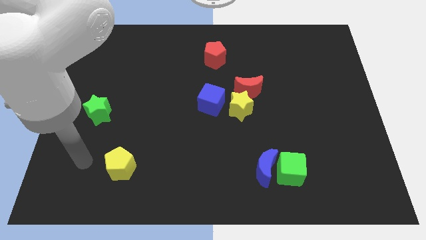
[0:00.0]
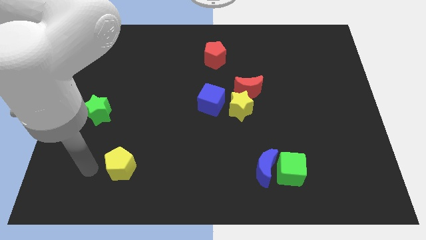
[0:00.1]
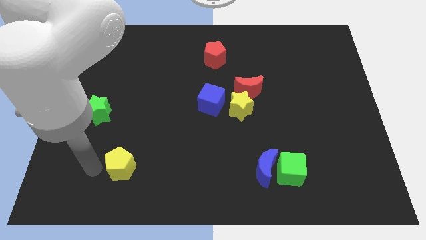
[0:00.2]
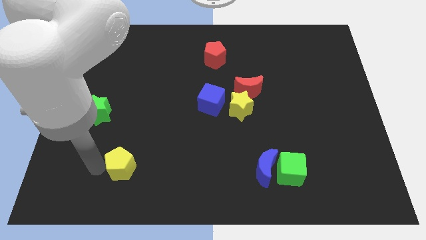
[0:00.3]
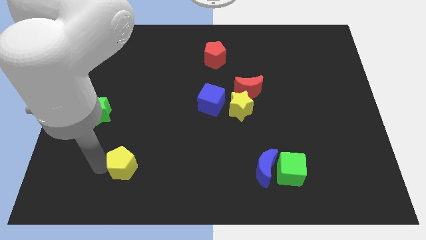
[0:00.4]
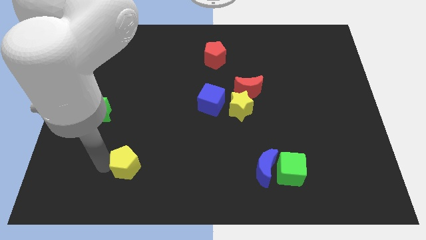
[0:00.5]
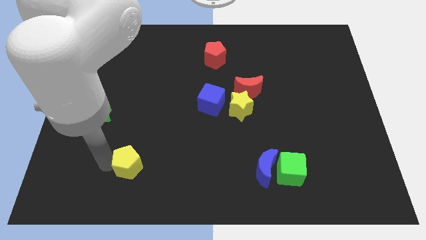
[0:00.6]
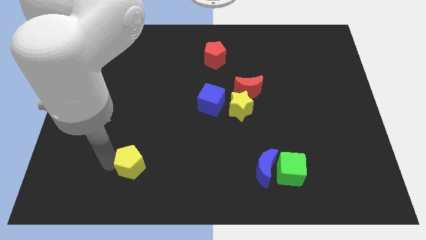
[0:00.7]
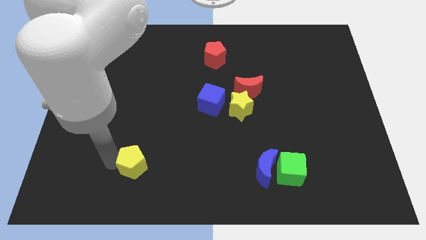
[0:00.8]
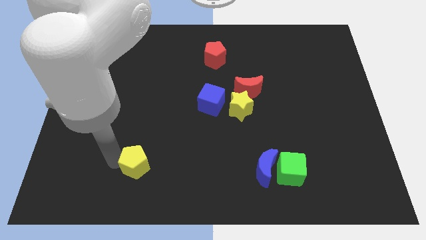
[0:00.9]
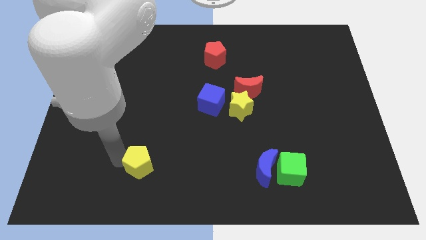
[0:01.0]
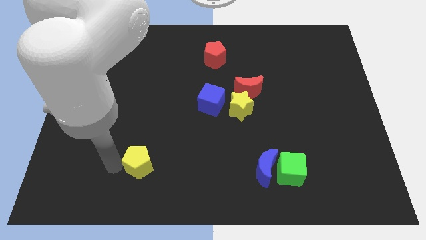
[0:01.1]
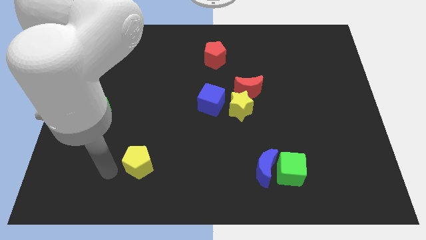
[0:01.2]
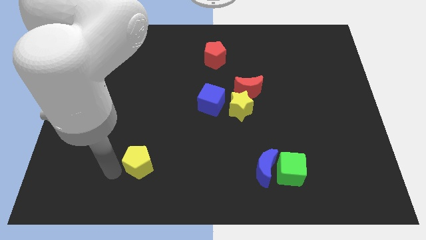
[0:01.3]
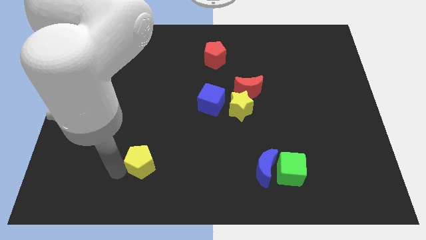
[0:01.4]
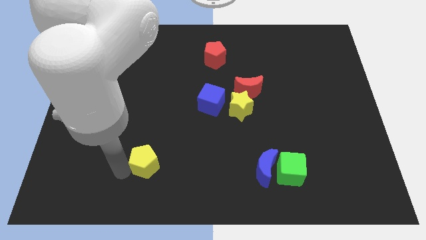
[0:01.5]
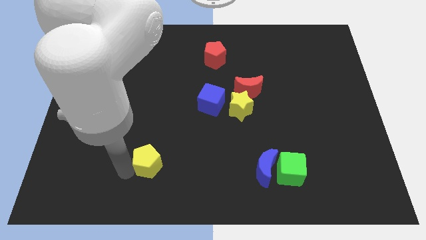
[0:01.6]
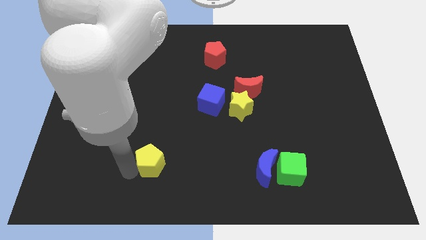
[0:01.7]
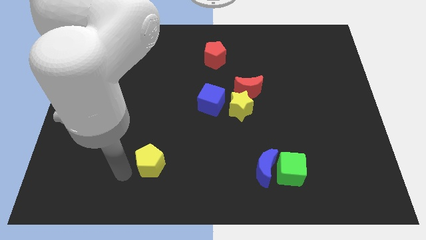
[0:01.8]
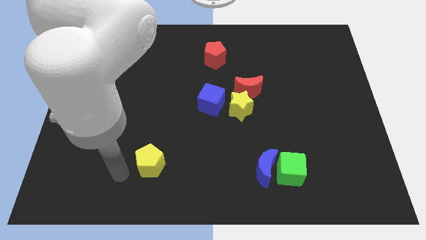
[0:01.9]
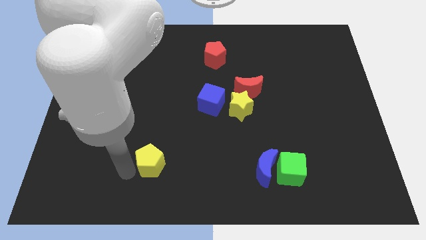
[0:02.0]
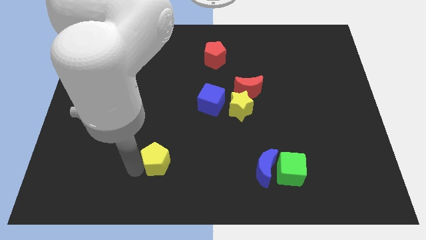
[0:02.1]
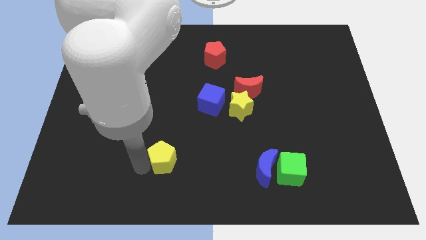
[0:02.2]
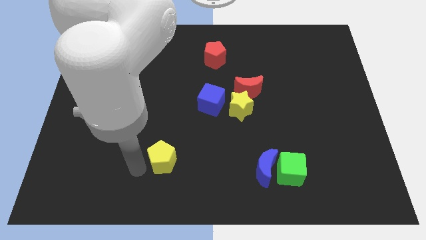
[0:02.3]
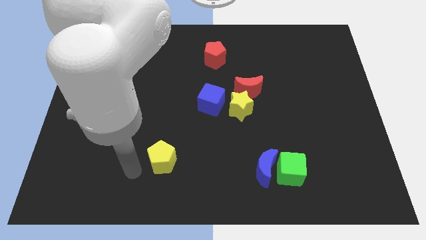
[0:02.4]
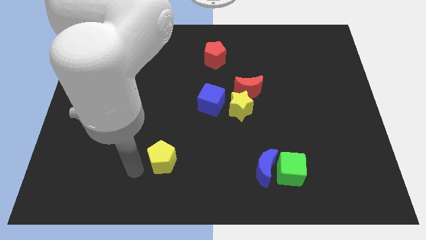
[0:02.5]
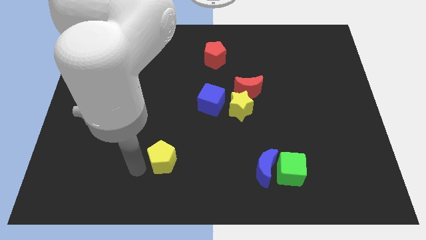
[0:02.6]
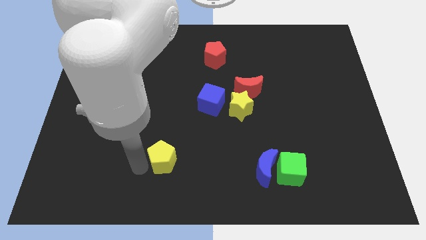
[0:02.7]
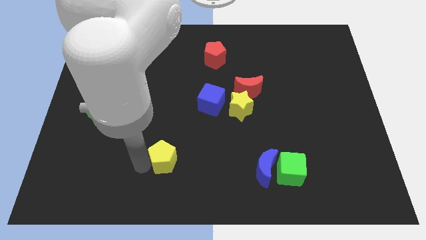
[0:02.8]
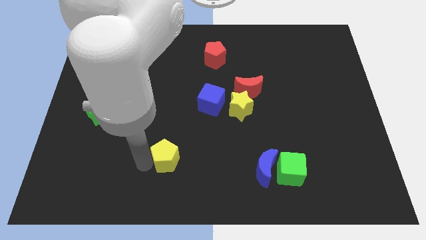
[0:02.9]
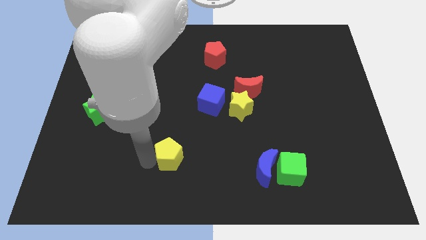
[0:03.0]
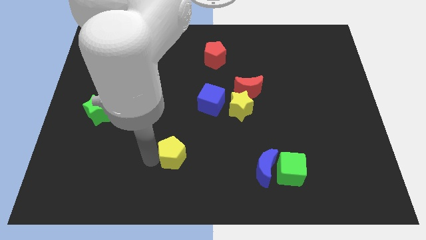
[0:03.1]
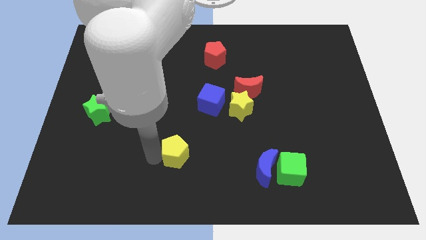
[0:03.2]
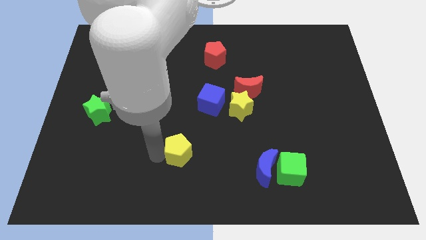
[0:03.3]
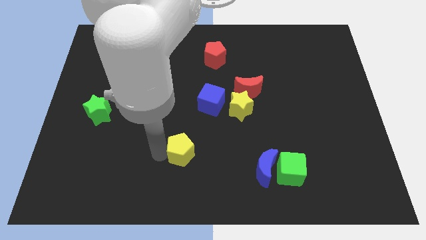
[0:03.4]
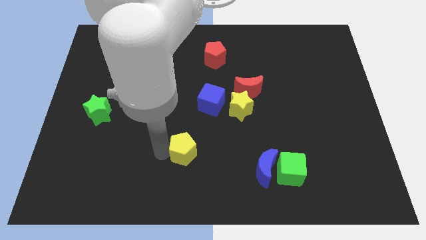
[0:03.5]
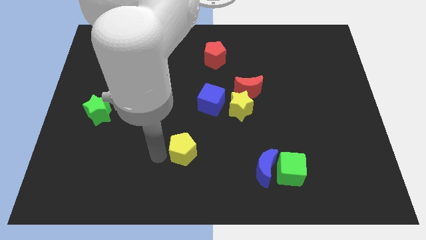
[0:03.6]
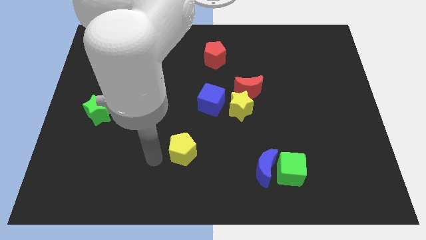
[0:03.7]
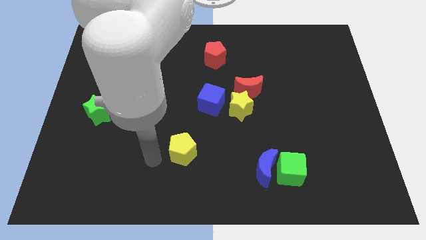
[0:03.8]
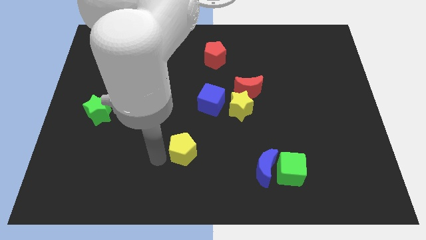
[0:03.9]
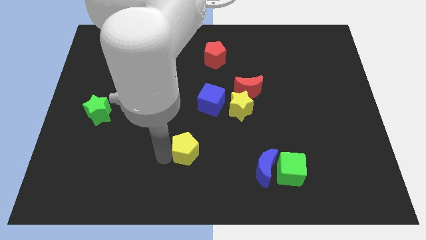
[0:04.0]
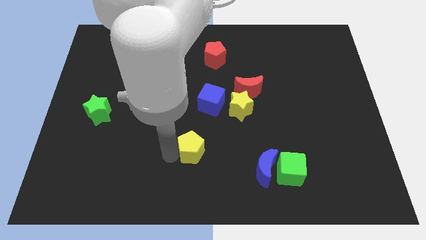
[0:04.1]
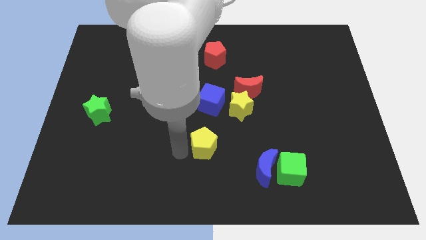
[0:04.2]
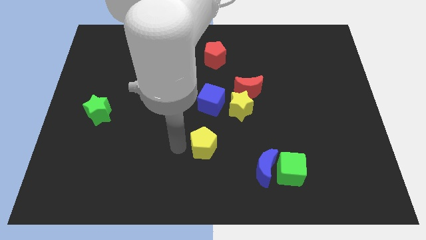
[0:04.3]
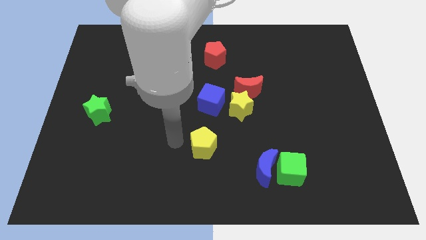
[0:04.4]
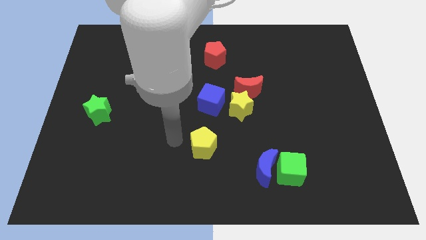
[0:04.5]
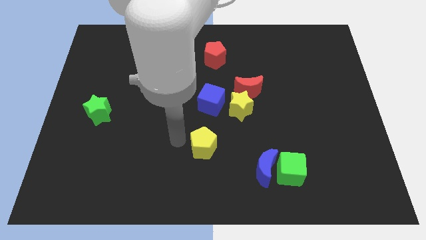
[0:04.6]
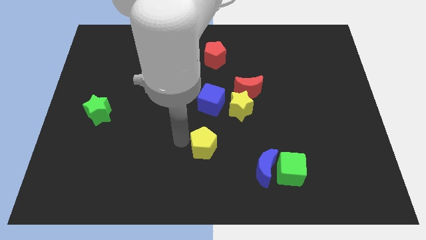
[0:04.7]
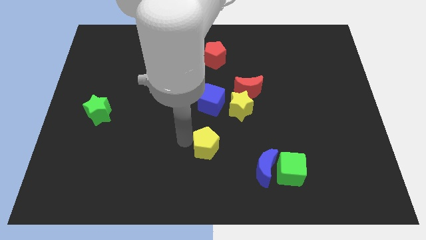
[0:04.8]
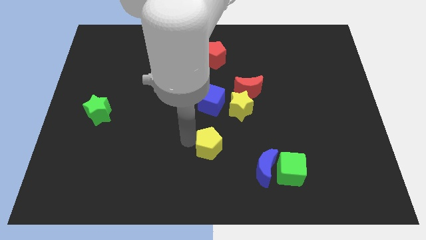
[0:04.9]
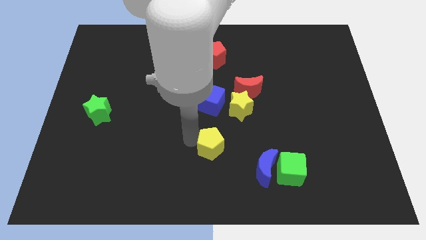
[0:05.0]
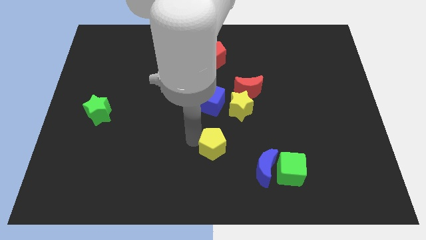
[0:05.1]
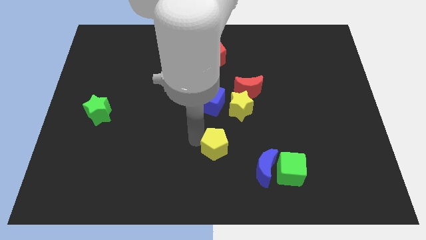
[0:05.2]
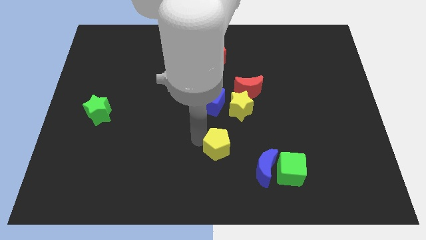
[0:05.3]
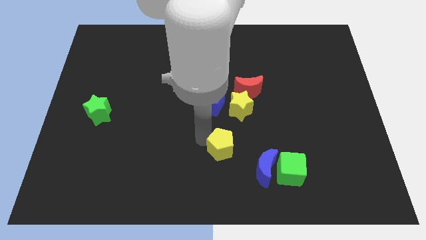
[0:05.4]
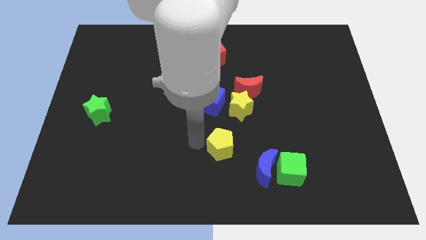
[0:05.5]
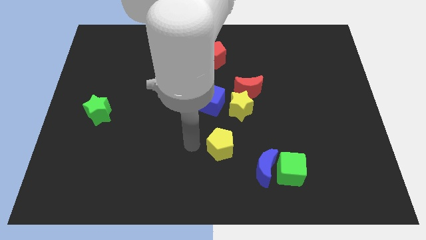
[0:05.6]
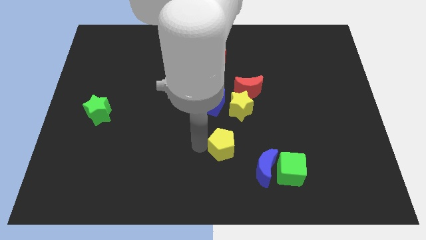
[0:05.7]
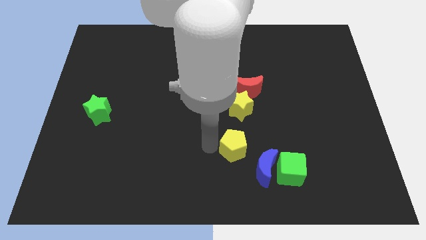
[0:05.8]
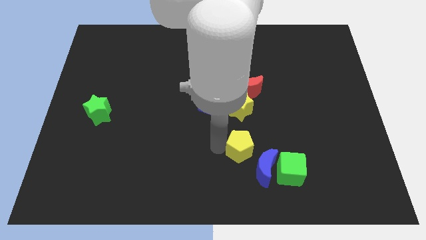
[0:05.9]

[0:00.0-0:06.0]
move the yellow pentagon to the top left of the green cube

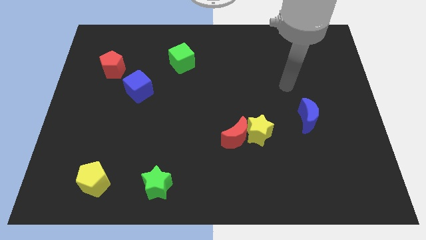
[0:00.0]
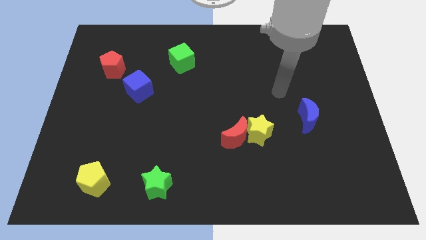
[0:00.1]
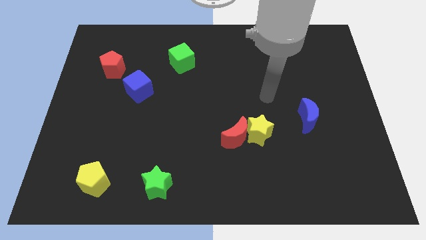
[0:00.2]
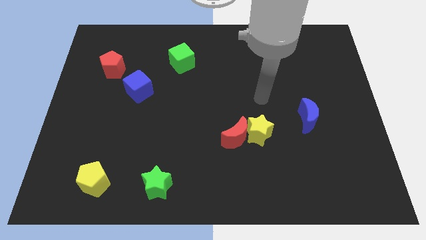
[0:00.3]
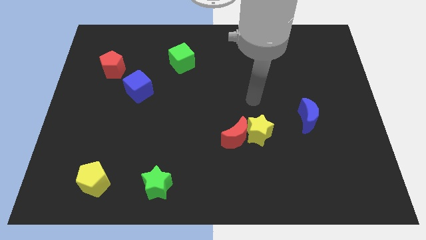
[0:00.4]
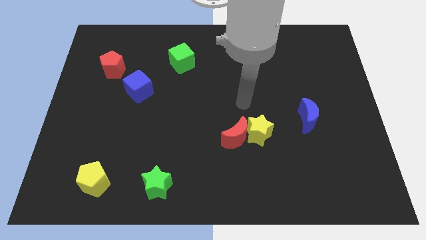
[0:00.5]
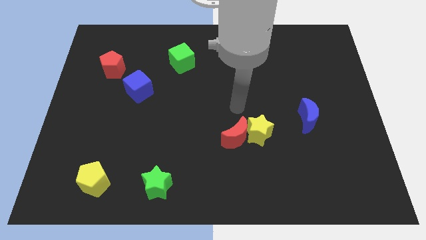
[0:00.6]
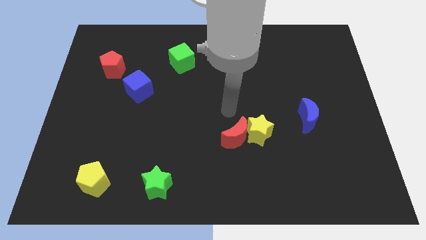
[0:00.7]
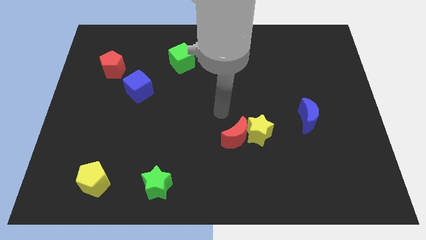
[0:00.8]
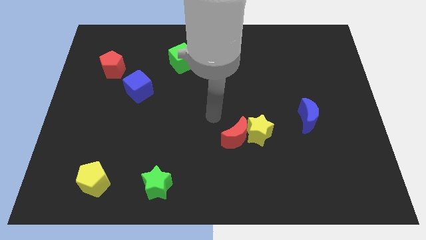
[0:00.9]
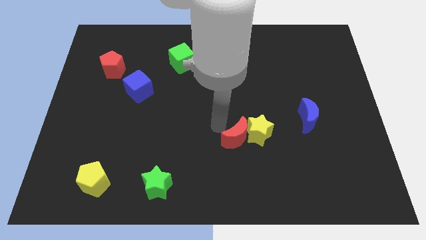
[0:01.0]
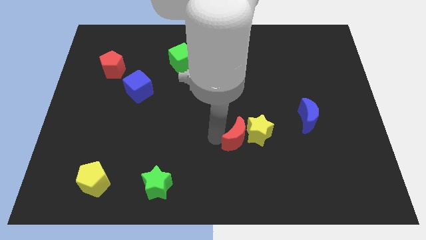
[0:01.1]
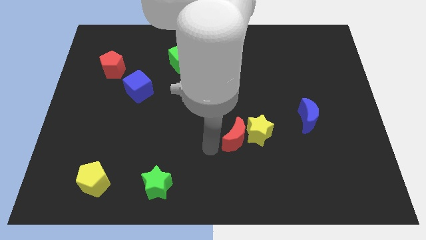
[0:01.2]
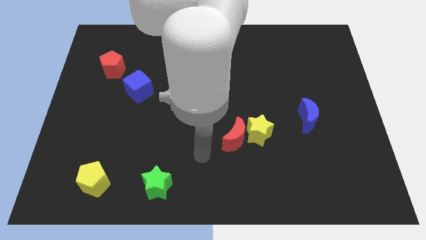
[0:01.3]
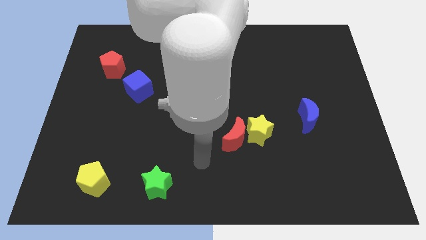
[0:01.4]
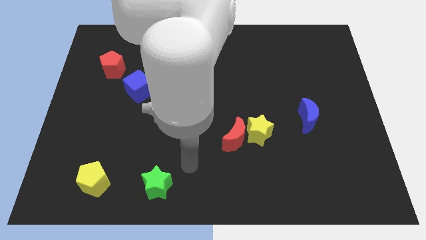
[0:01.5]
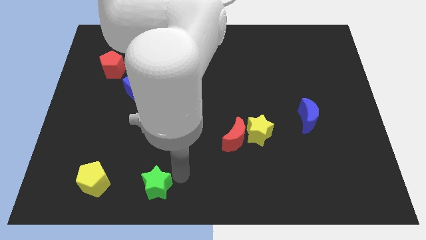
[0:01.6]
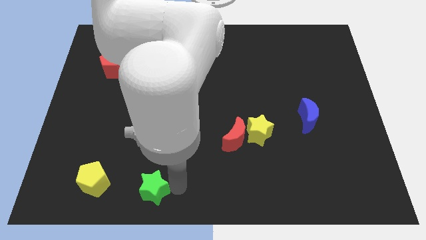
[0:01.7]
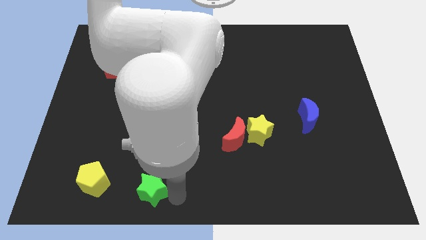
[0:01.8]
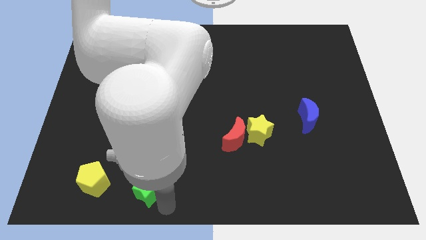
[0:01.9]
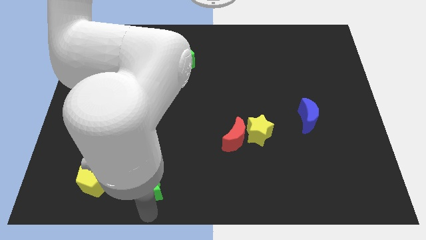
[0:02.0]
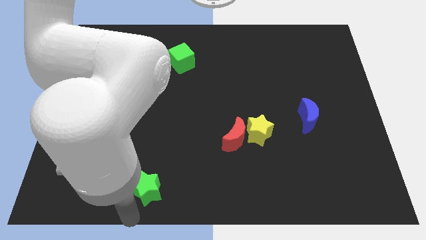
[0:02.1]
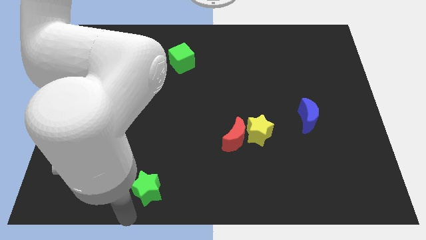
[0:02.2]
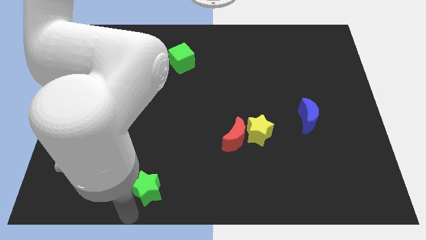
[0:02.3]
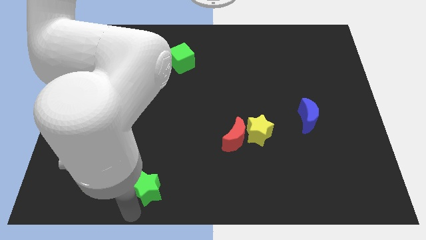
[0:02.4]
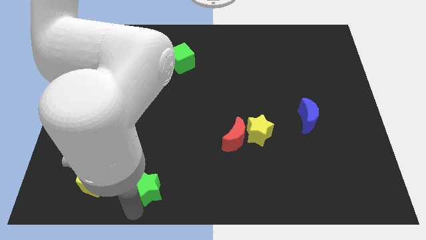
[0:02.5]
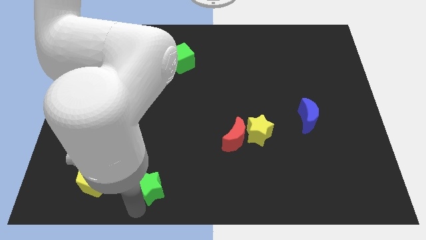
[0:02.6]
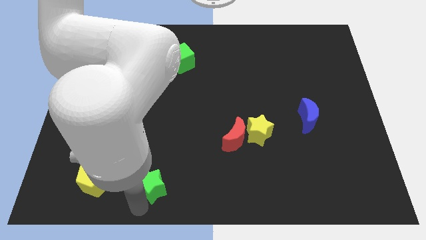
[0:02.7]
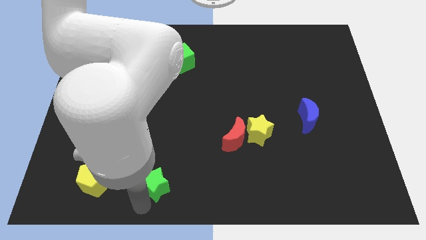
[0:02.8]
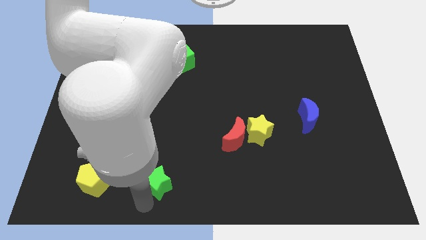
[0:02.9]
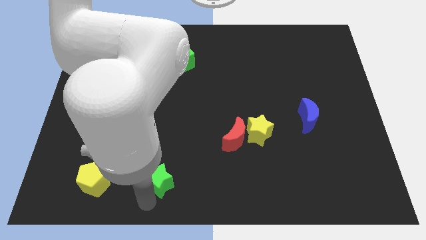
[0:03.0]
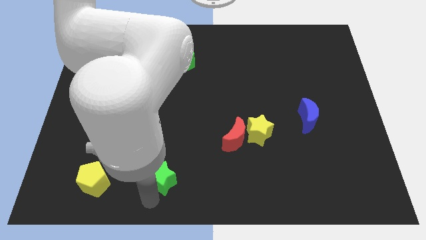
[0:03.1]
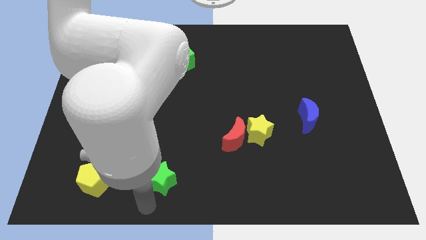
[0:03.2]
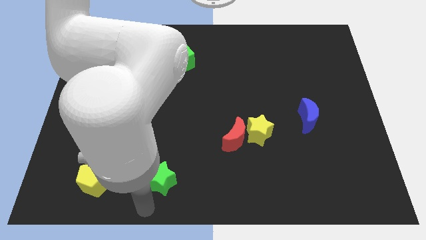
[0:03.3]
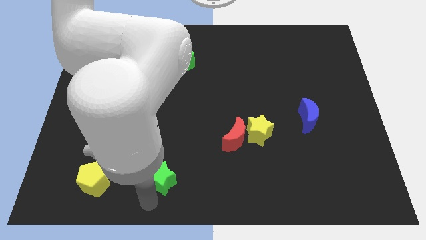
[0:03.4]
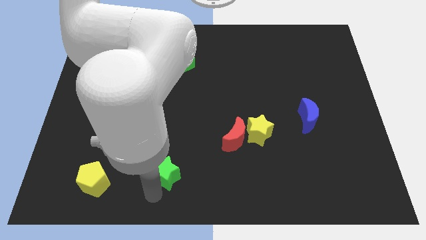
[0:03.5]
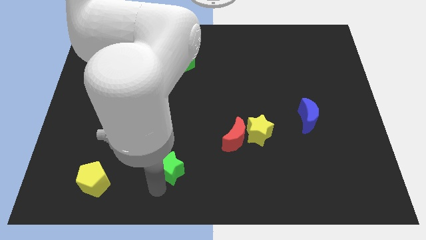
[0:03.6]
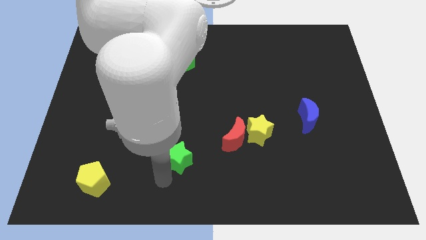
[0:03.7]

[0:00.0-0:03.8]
push the green star just left of the red moon
